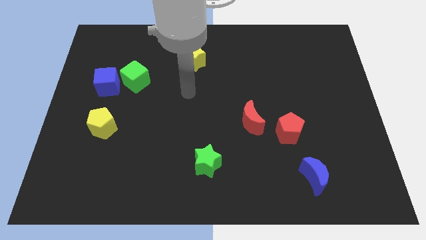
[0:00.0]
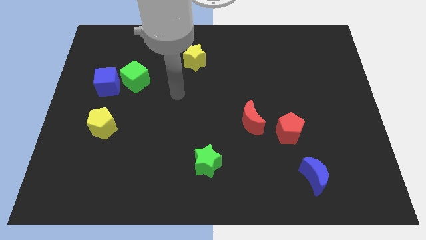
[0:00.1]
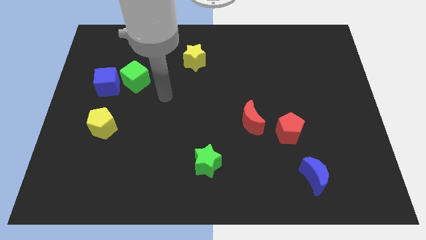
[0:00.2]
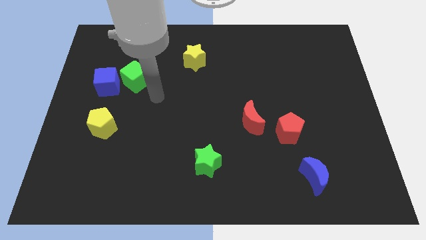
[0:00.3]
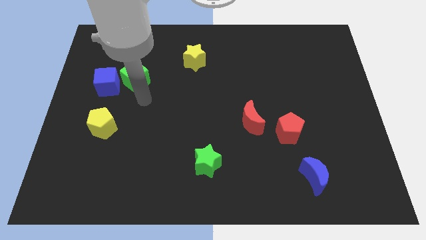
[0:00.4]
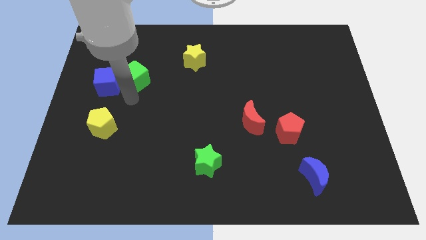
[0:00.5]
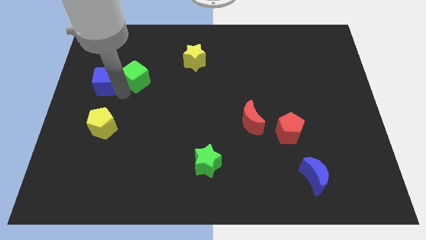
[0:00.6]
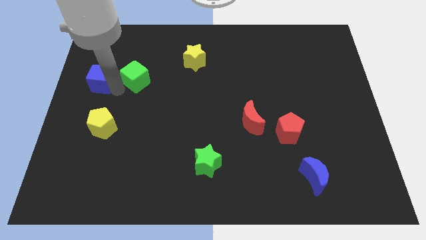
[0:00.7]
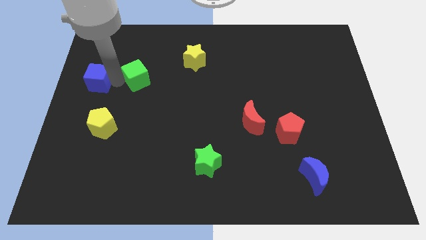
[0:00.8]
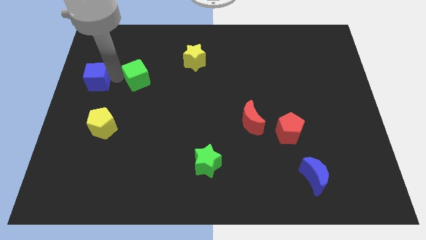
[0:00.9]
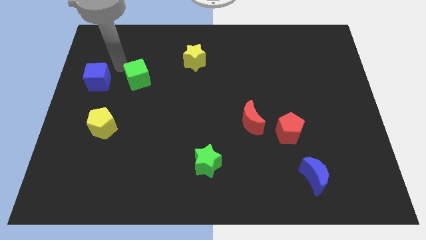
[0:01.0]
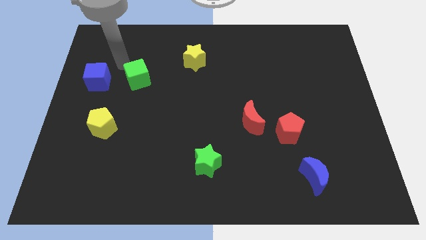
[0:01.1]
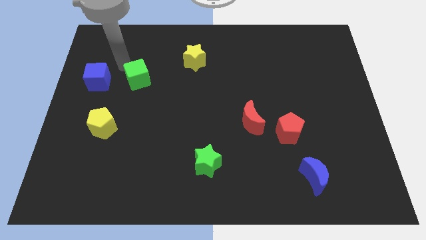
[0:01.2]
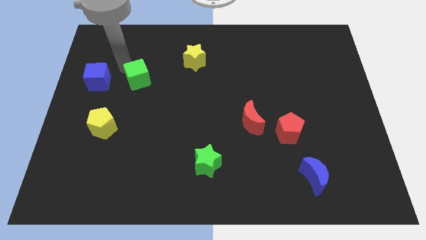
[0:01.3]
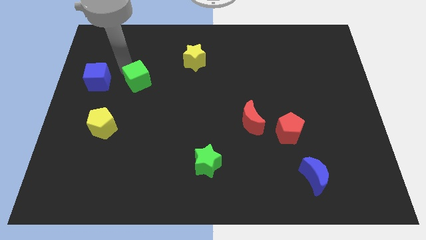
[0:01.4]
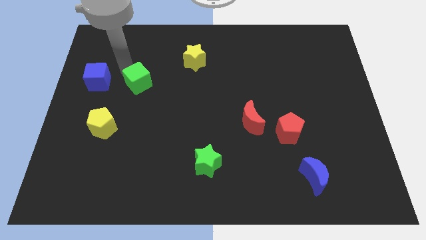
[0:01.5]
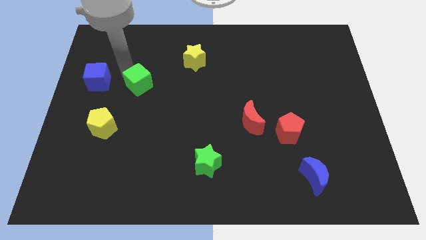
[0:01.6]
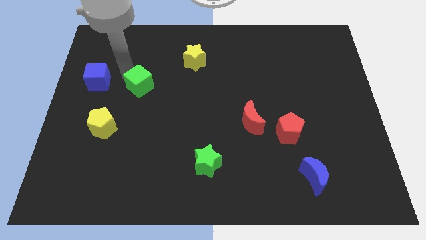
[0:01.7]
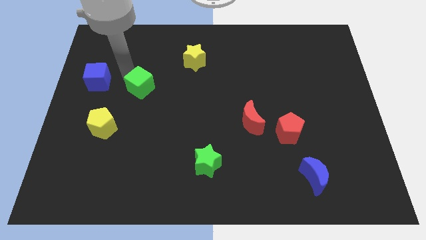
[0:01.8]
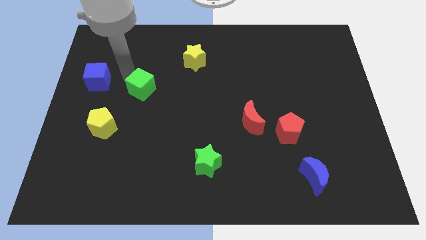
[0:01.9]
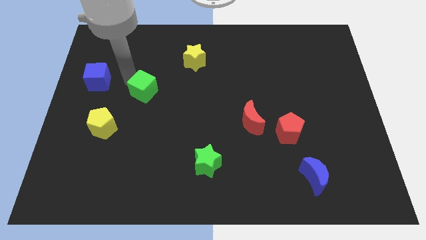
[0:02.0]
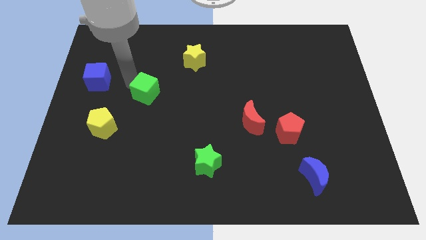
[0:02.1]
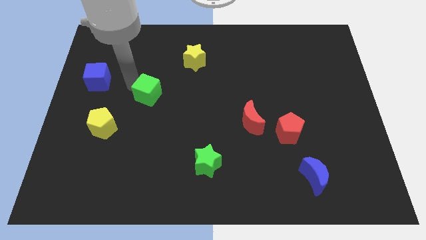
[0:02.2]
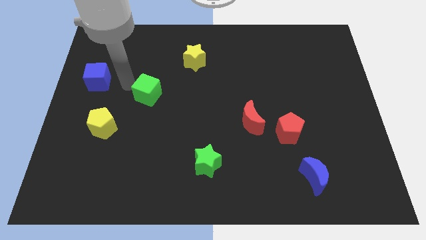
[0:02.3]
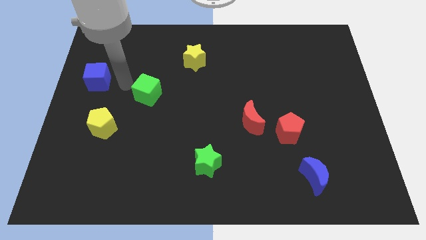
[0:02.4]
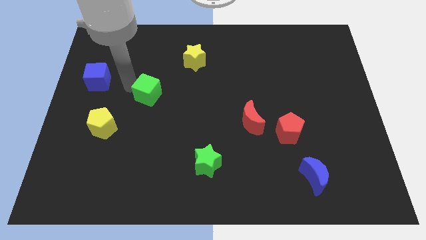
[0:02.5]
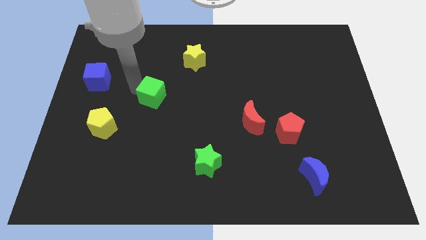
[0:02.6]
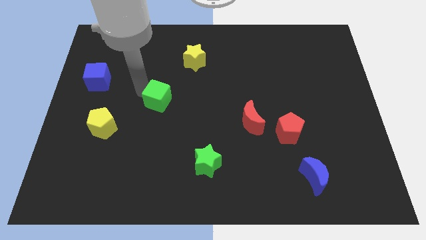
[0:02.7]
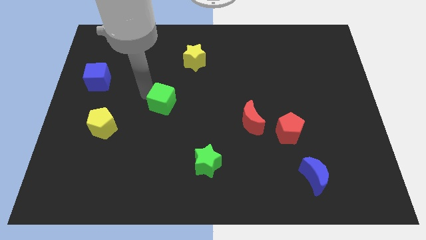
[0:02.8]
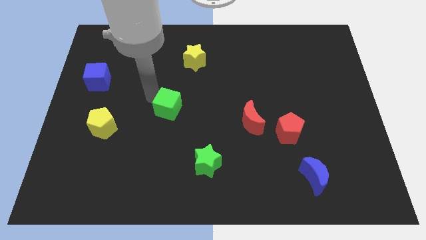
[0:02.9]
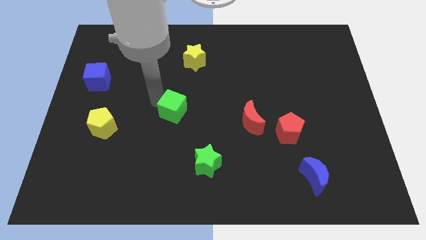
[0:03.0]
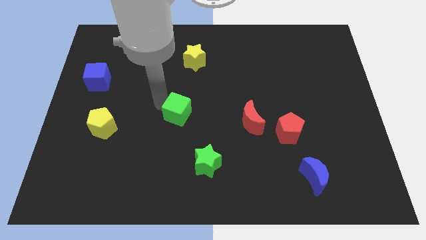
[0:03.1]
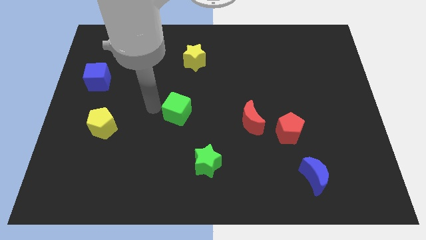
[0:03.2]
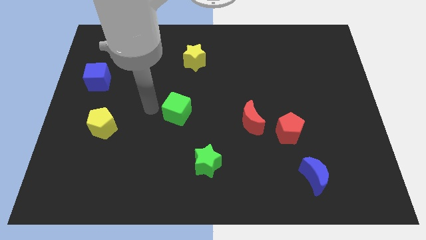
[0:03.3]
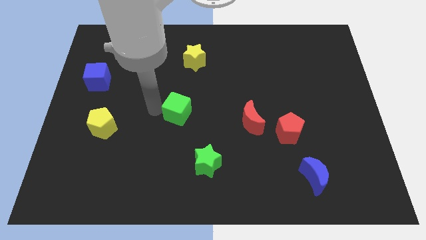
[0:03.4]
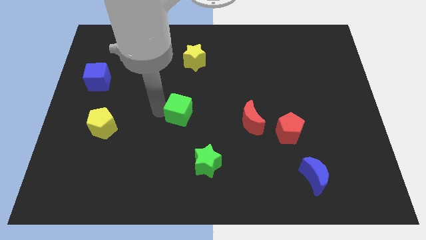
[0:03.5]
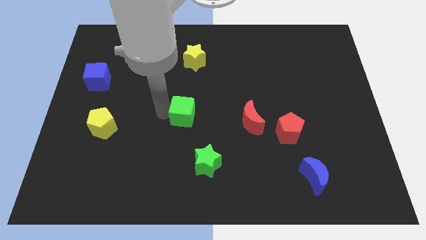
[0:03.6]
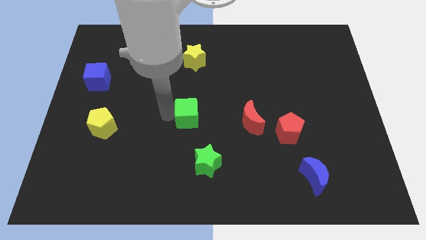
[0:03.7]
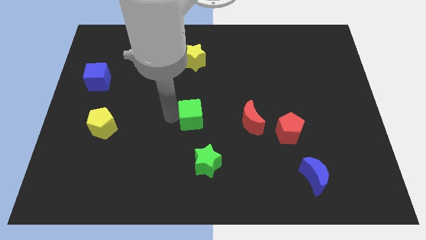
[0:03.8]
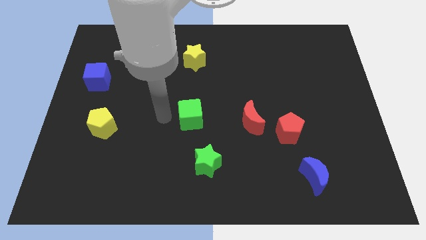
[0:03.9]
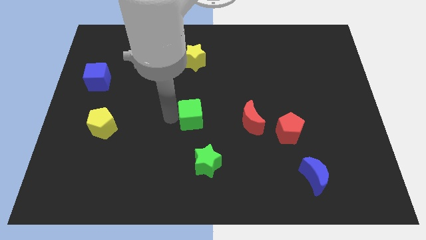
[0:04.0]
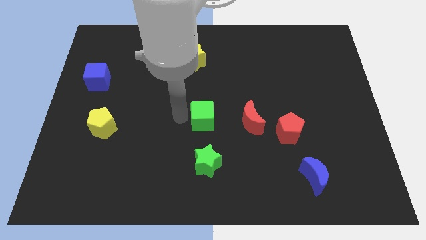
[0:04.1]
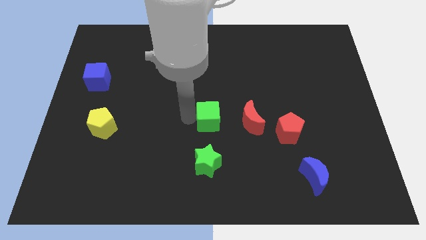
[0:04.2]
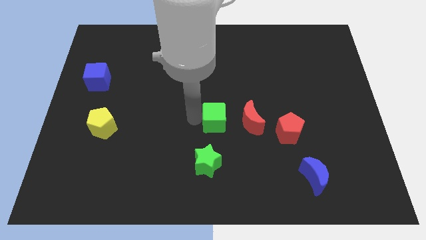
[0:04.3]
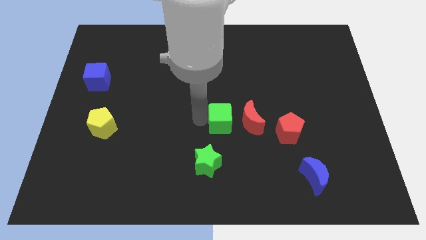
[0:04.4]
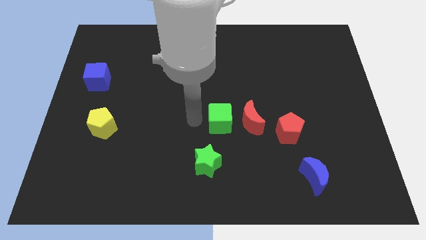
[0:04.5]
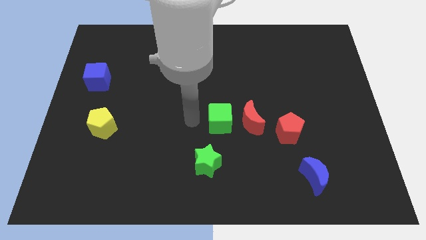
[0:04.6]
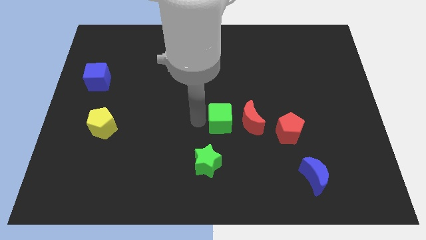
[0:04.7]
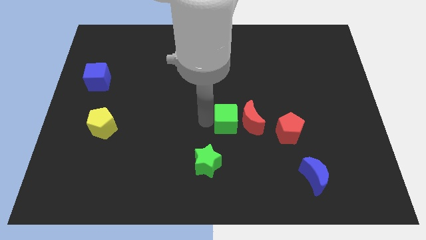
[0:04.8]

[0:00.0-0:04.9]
slide the green cube towards the red moon

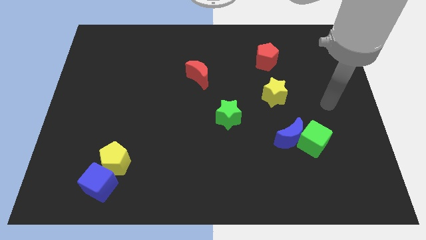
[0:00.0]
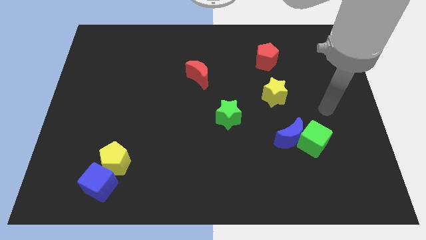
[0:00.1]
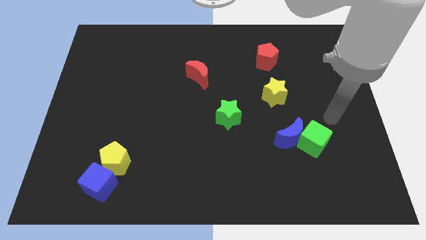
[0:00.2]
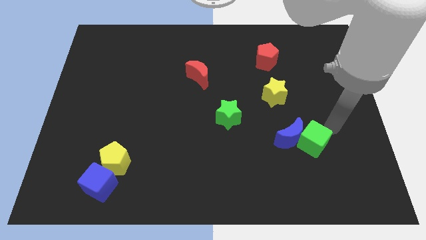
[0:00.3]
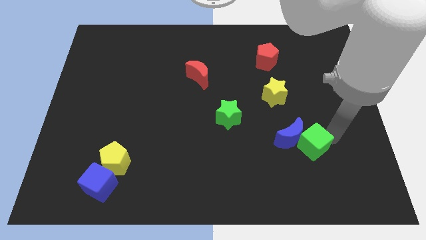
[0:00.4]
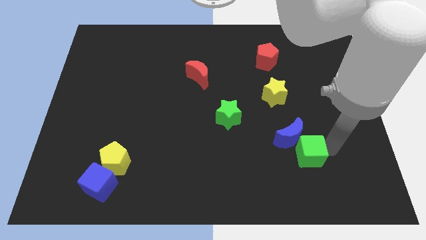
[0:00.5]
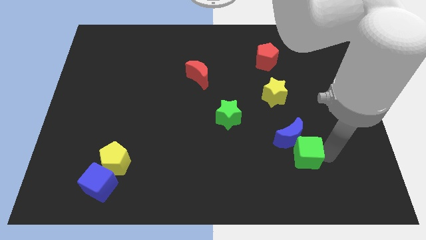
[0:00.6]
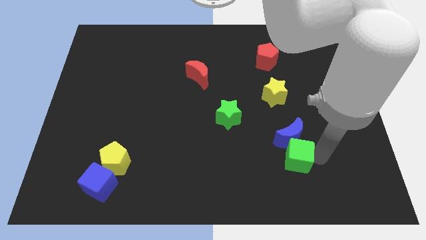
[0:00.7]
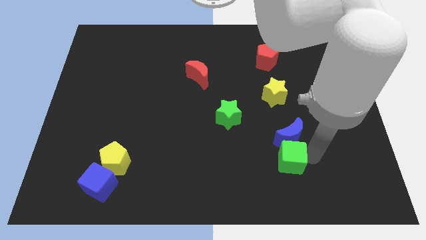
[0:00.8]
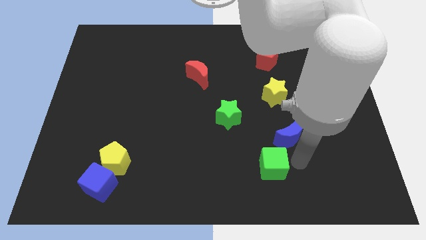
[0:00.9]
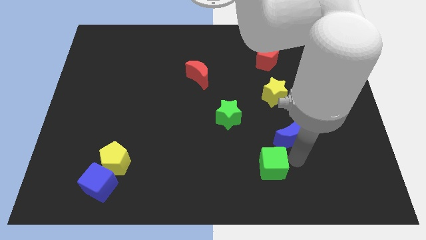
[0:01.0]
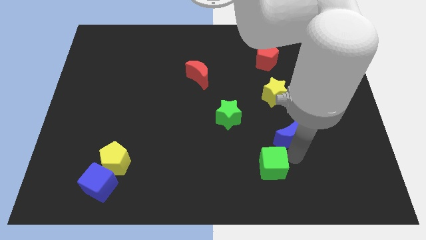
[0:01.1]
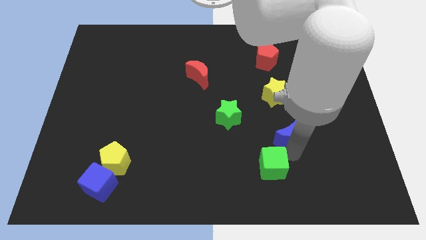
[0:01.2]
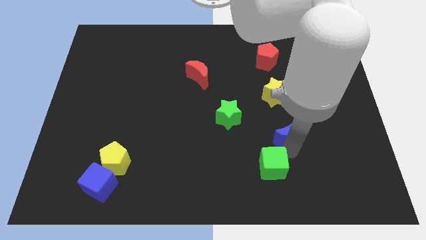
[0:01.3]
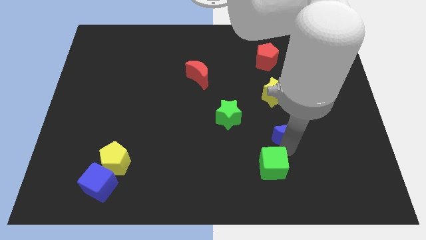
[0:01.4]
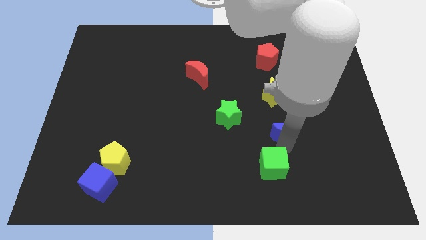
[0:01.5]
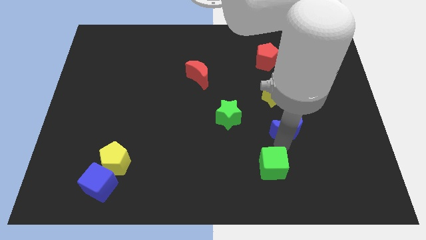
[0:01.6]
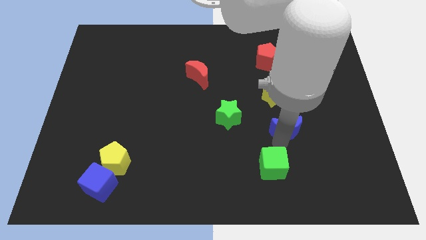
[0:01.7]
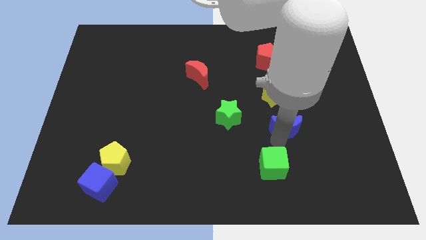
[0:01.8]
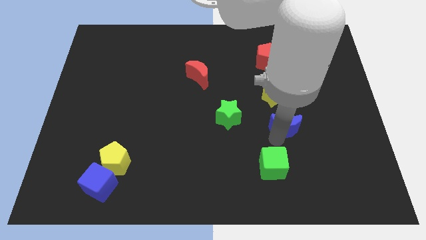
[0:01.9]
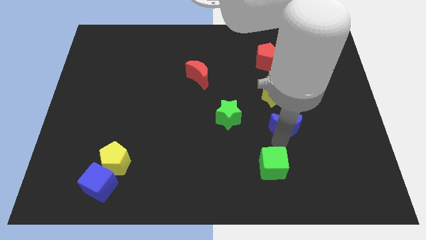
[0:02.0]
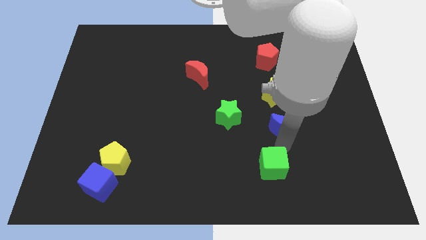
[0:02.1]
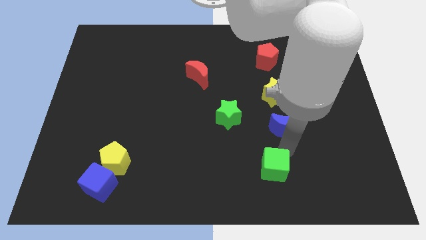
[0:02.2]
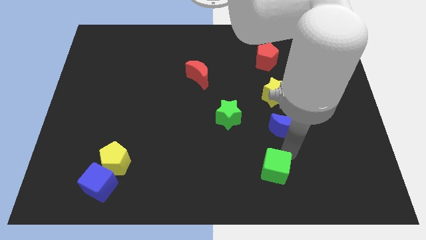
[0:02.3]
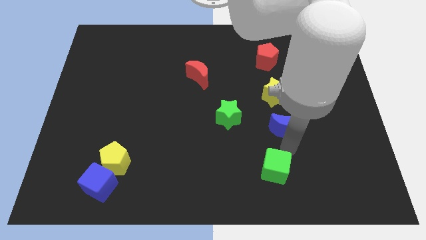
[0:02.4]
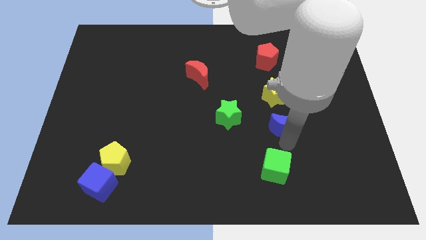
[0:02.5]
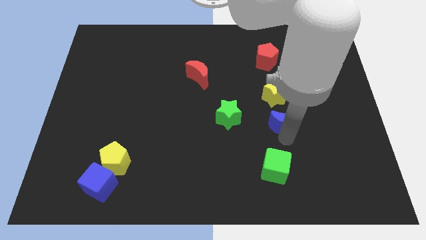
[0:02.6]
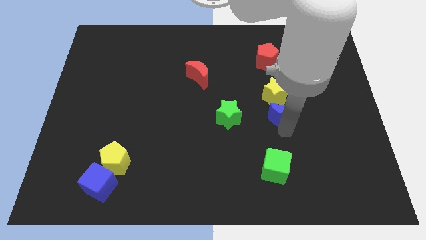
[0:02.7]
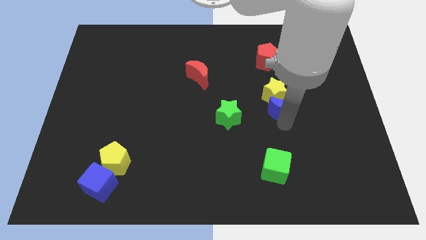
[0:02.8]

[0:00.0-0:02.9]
put the blue moon close to the yellow star

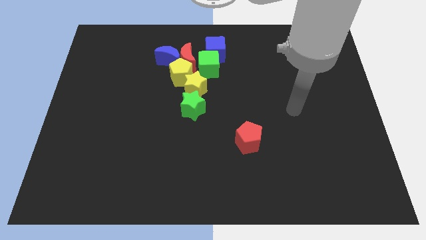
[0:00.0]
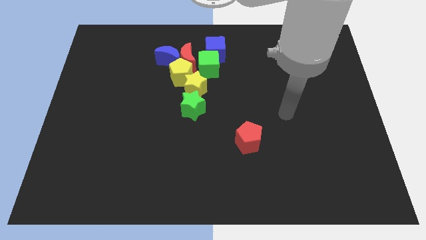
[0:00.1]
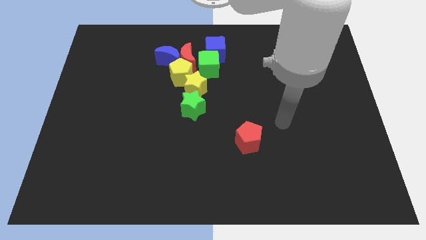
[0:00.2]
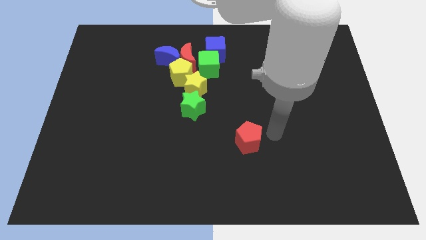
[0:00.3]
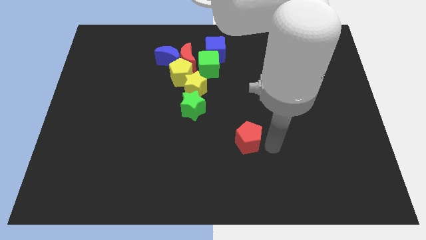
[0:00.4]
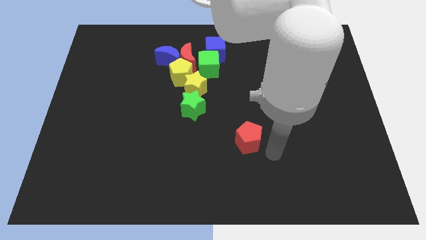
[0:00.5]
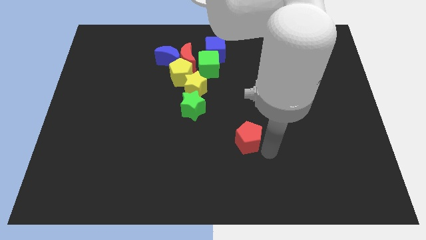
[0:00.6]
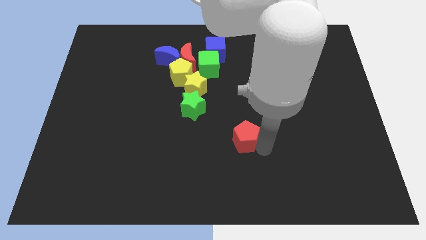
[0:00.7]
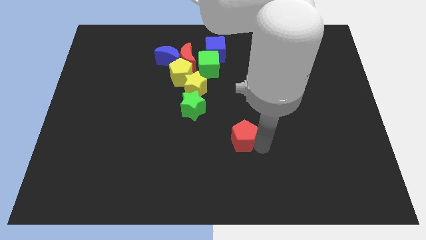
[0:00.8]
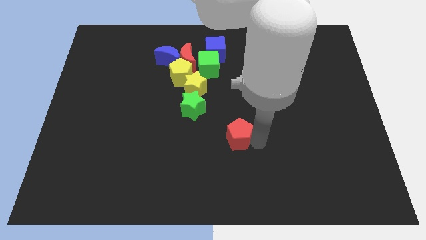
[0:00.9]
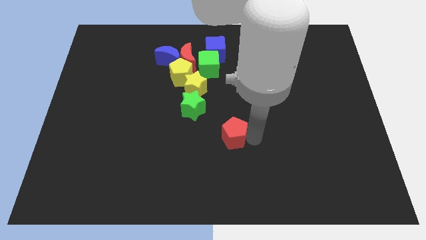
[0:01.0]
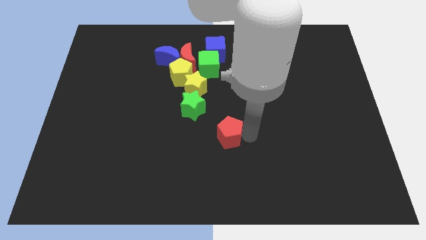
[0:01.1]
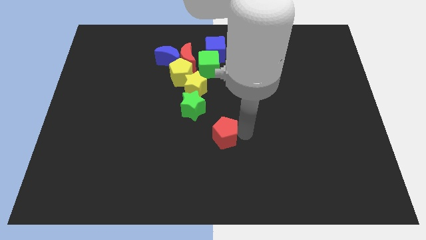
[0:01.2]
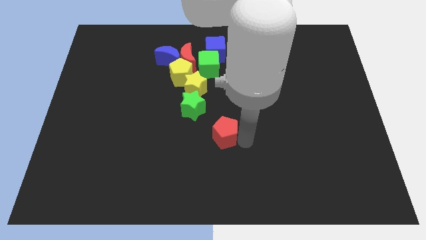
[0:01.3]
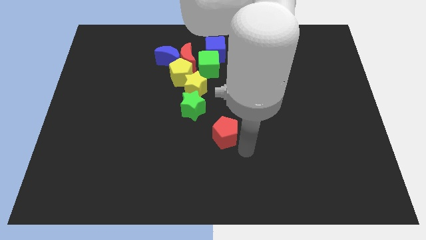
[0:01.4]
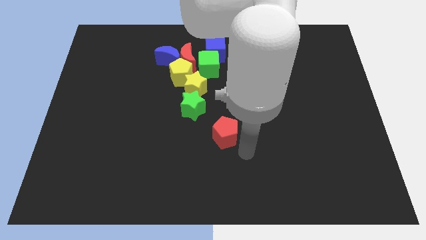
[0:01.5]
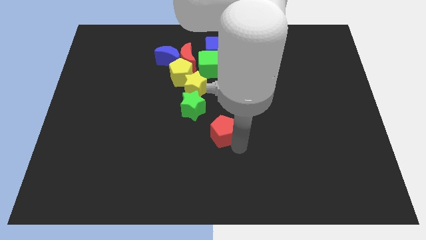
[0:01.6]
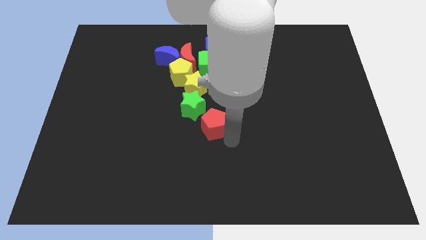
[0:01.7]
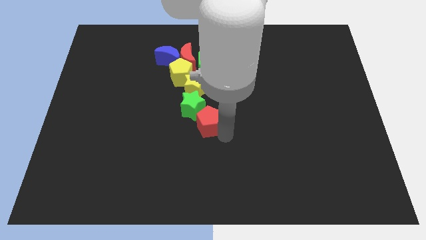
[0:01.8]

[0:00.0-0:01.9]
slide the red pentagon next to the green star
